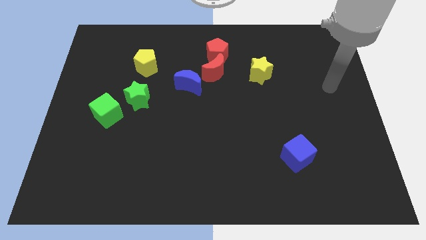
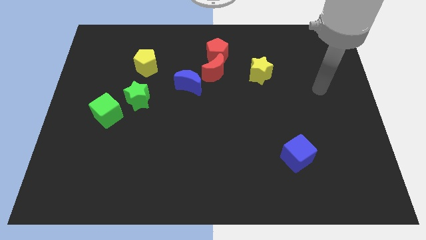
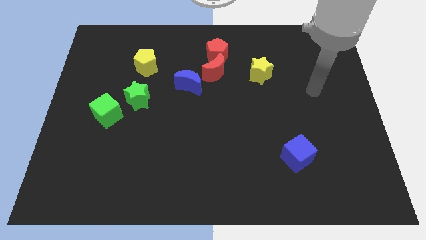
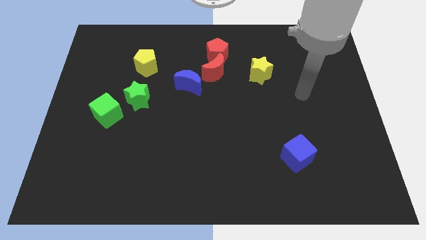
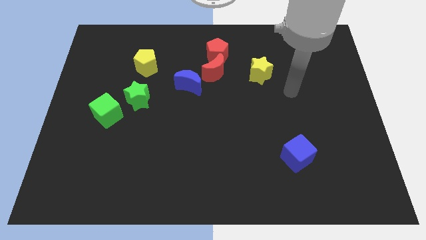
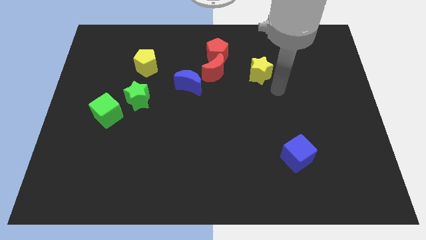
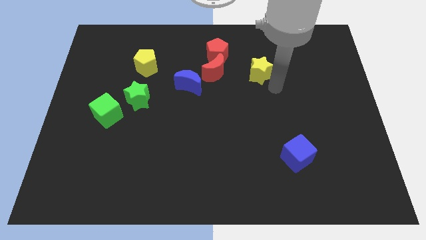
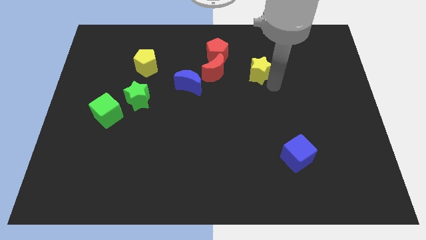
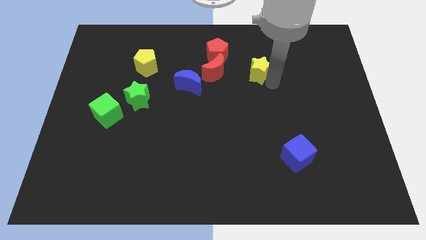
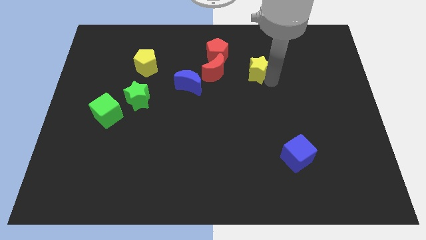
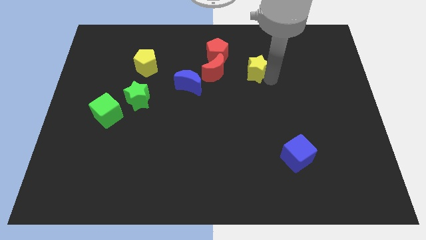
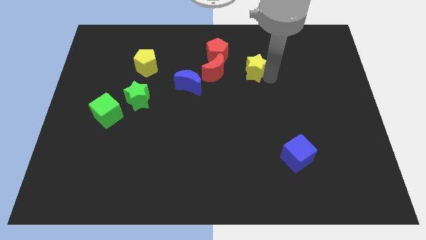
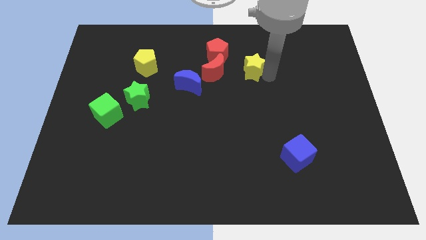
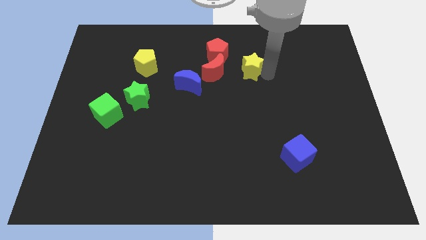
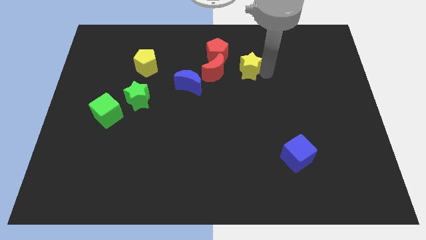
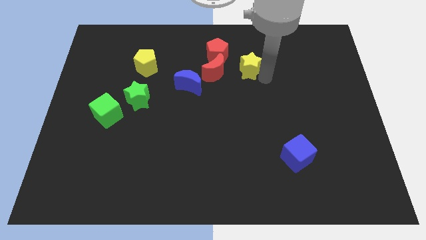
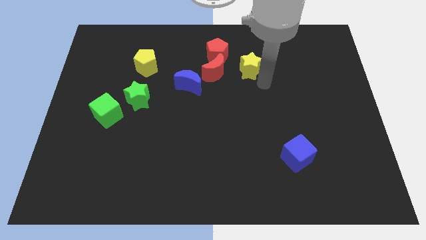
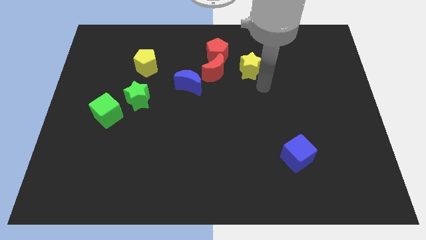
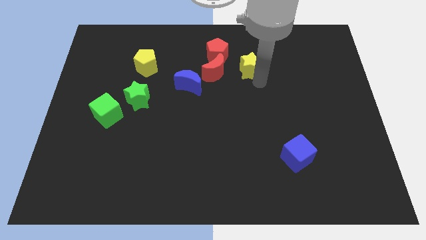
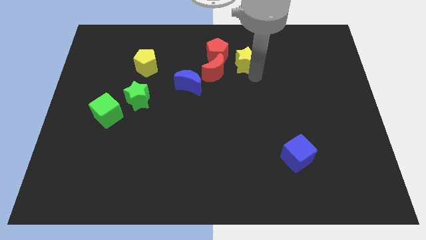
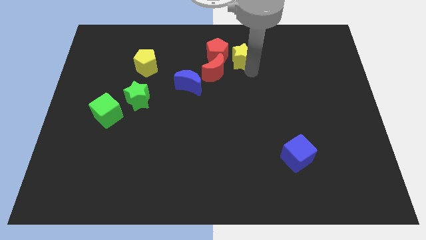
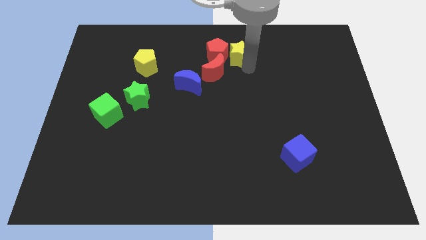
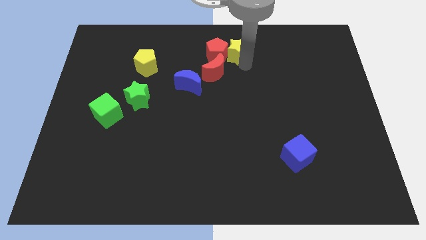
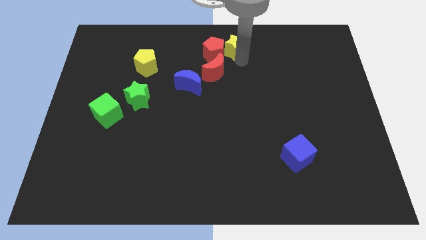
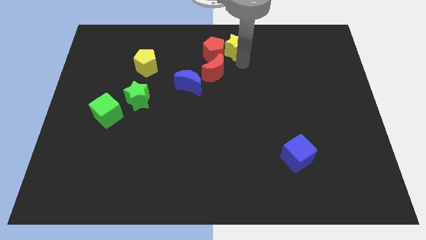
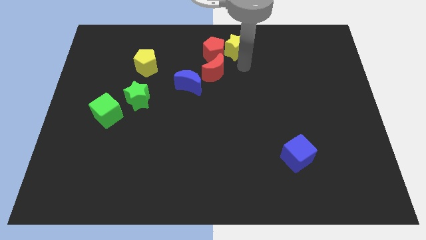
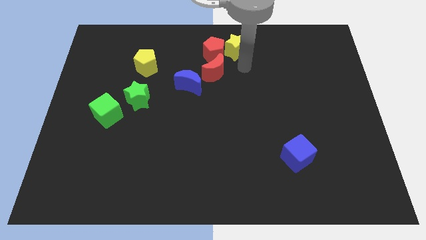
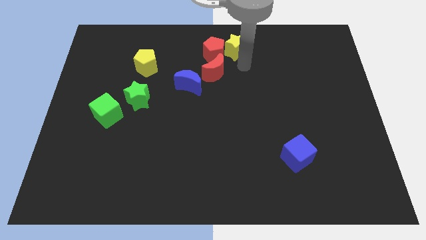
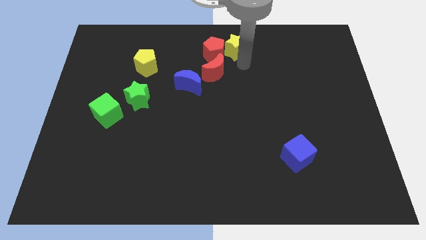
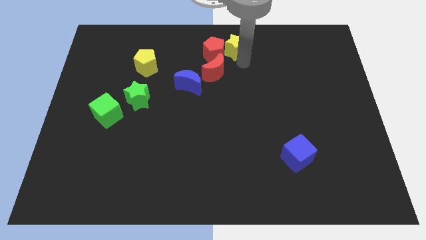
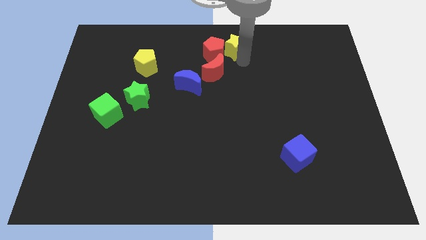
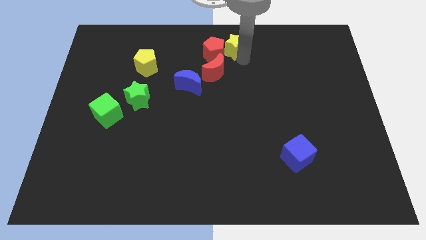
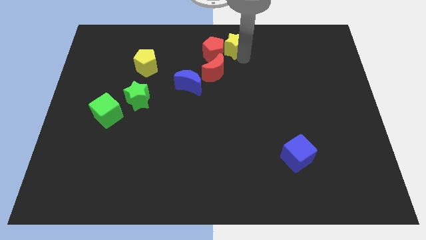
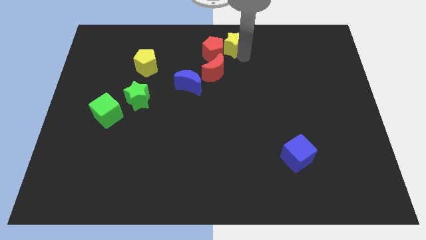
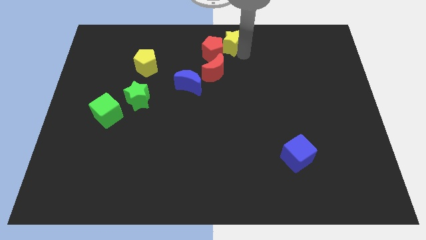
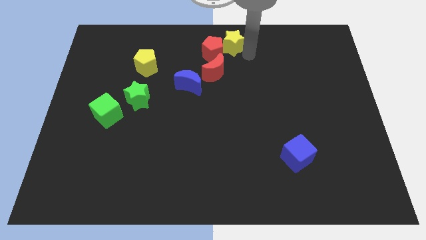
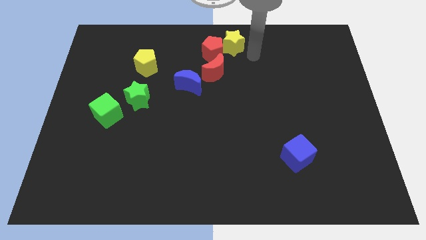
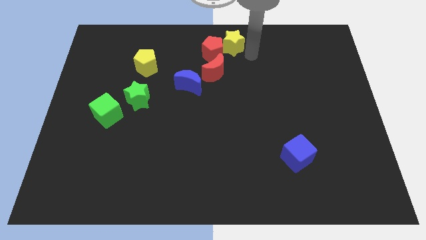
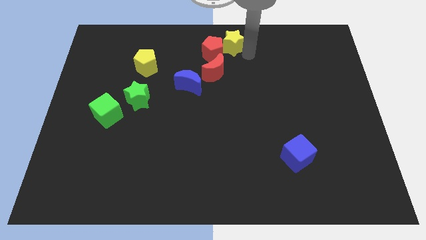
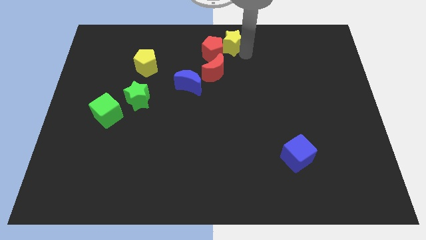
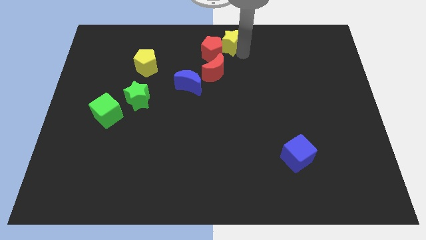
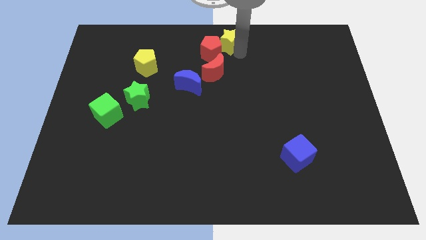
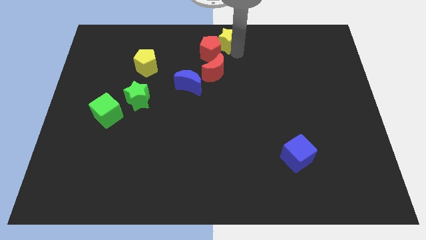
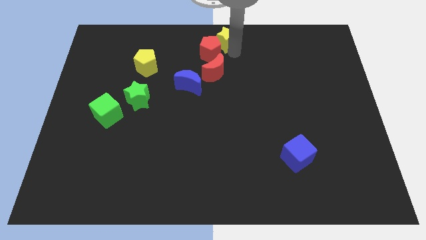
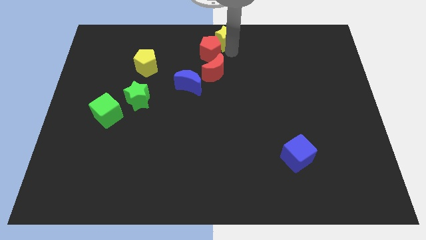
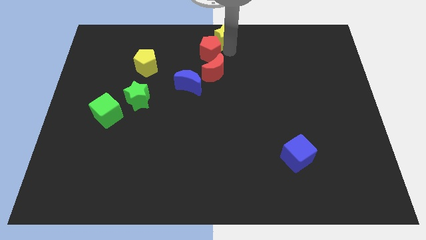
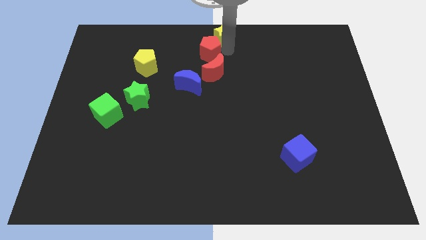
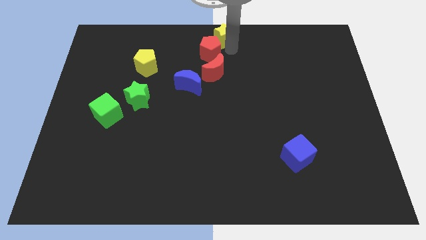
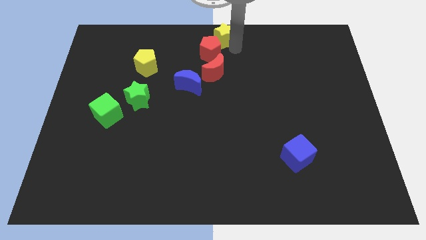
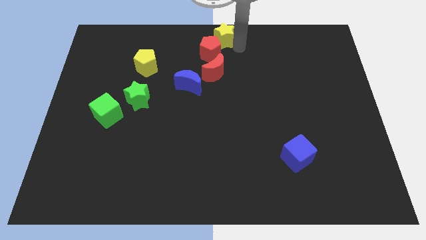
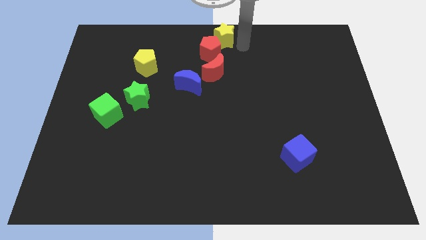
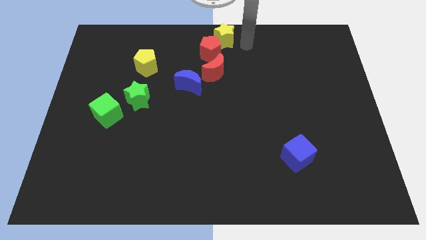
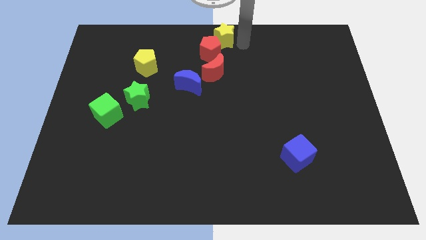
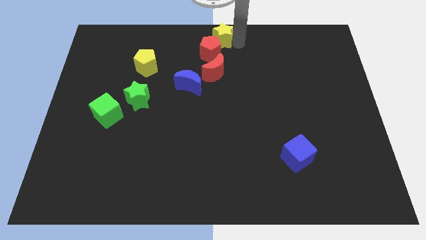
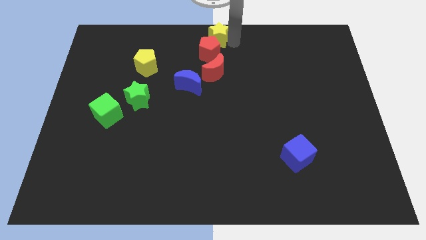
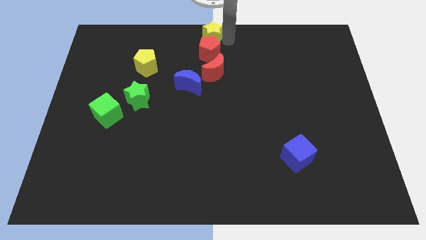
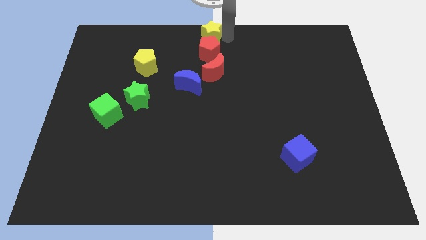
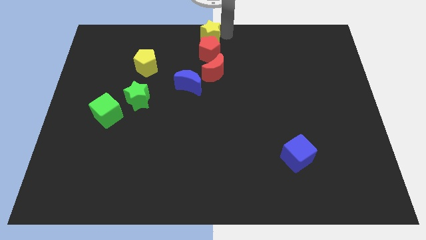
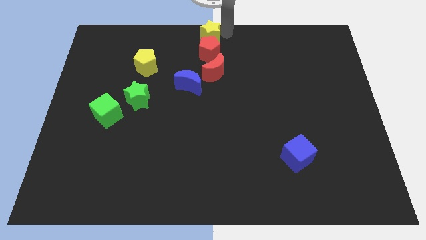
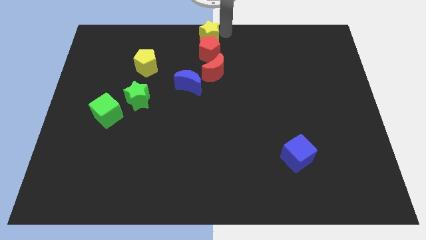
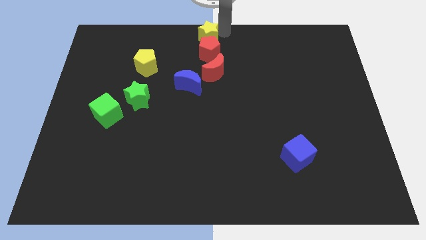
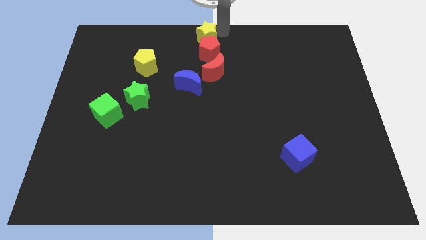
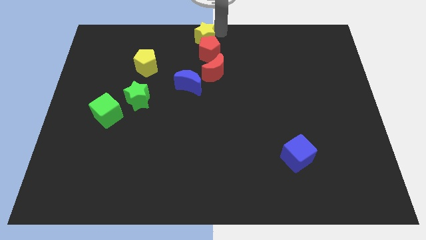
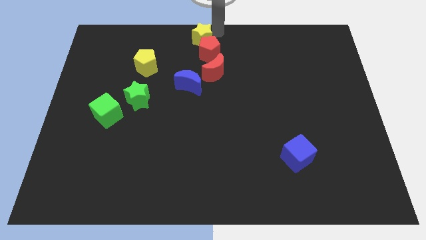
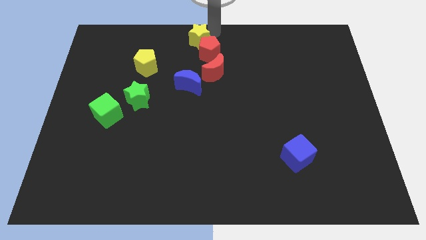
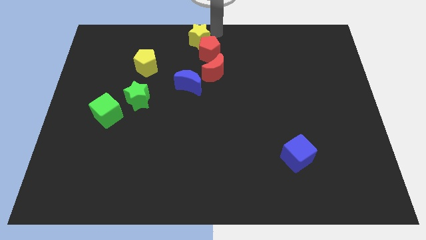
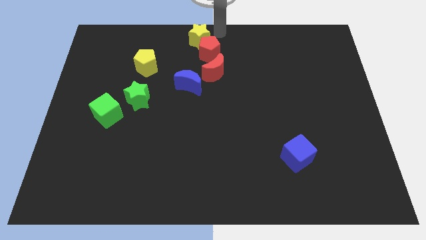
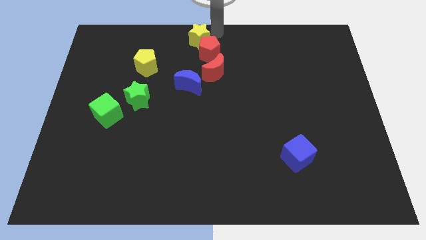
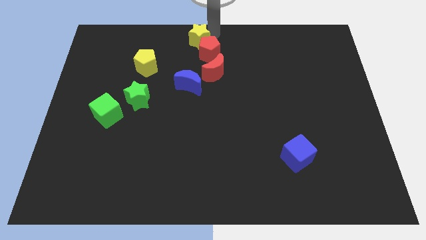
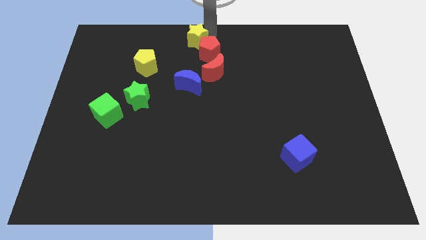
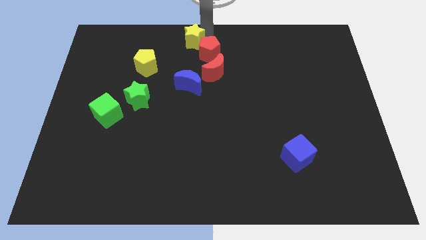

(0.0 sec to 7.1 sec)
put the yellow star to the left side of the red pentagon

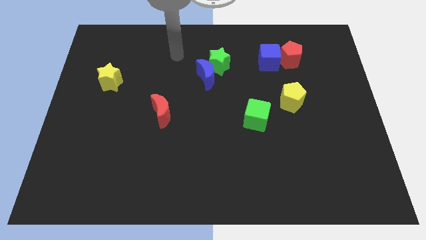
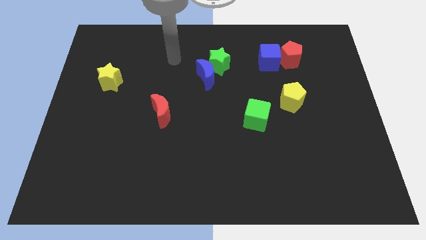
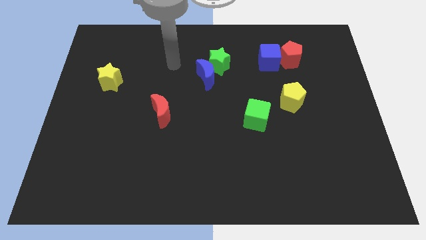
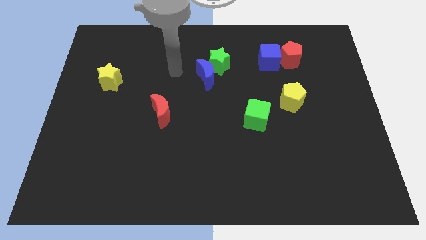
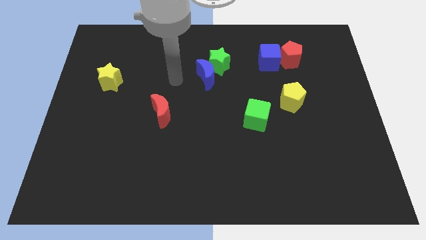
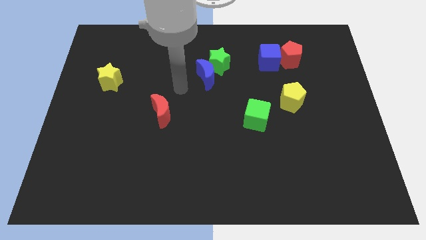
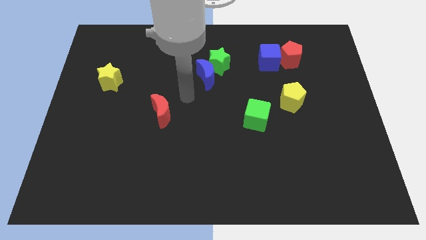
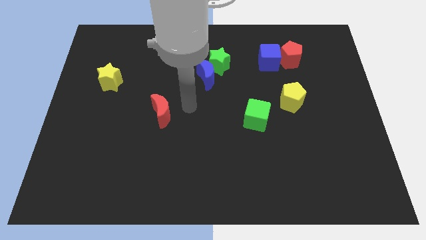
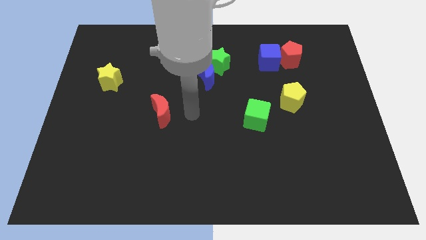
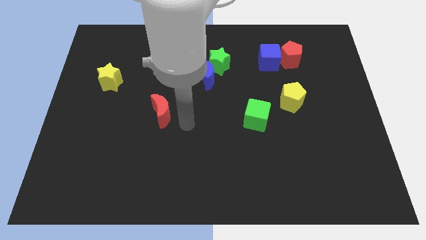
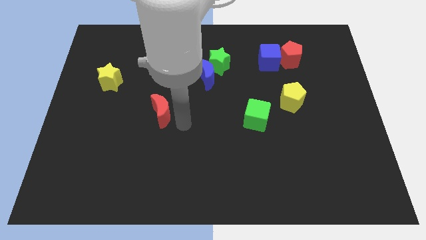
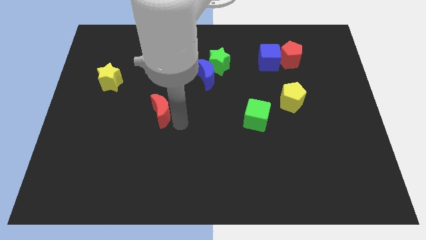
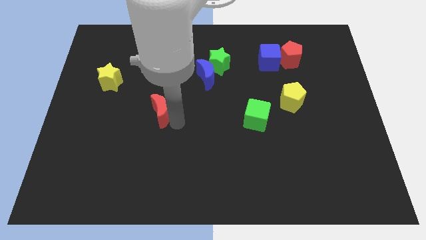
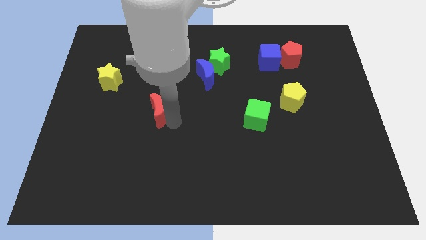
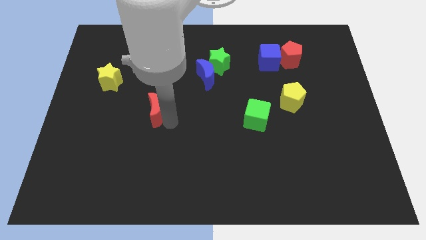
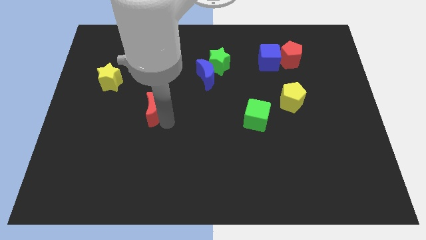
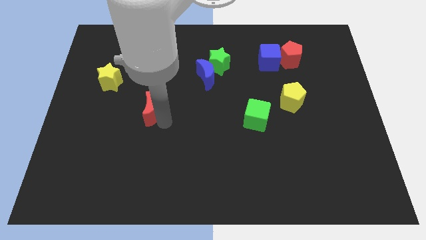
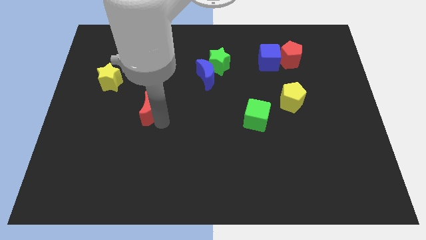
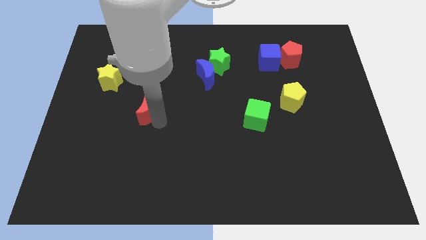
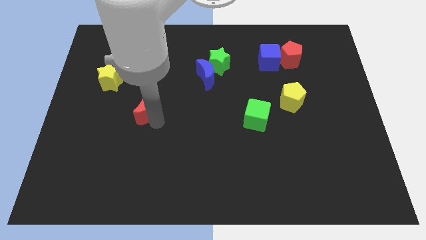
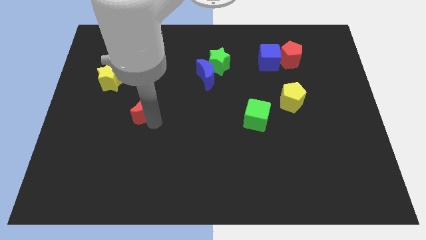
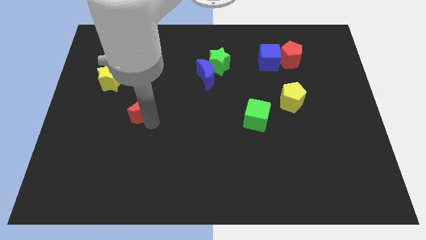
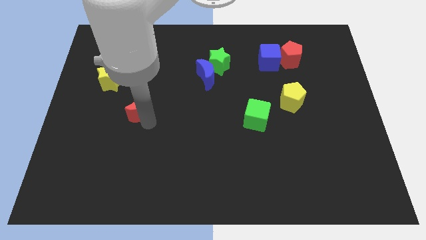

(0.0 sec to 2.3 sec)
move the red moon to the bottom right side of the yellow star
